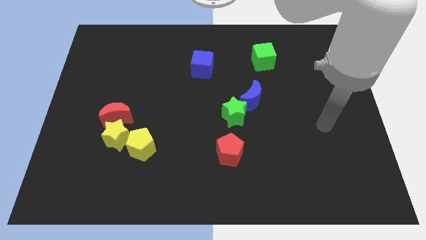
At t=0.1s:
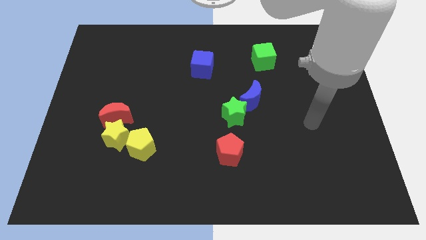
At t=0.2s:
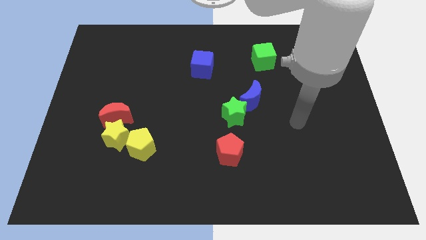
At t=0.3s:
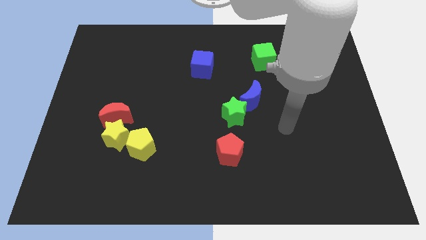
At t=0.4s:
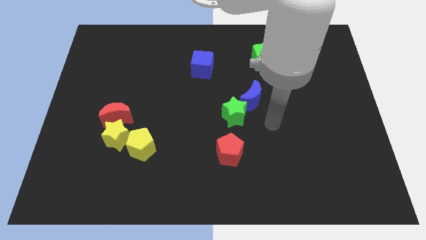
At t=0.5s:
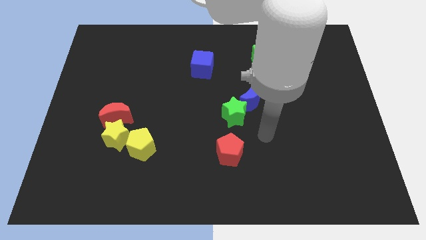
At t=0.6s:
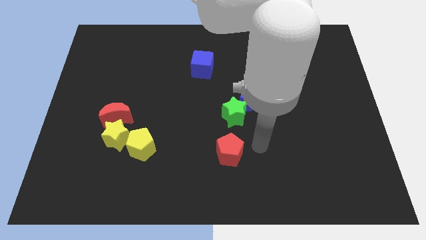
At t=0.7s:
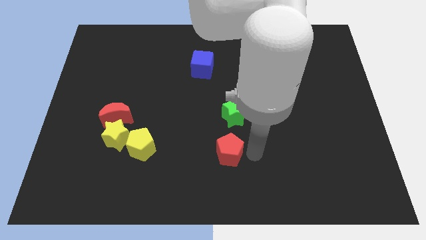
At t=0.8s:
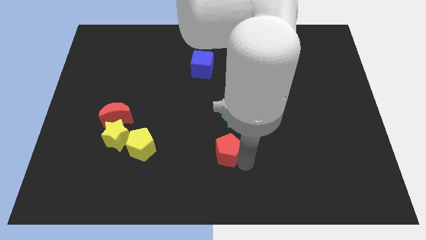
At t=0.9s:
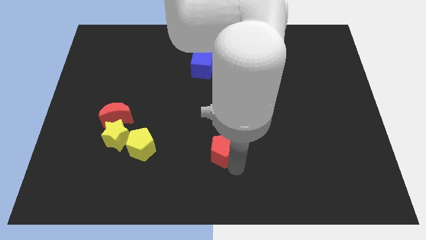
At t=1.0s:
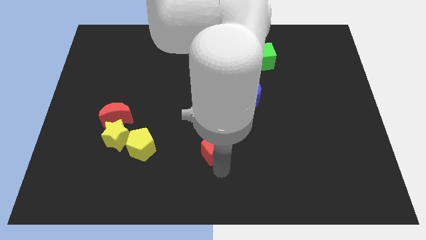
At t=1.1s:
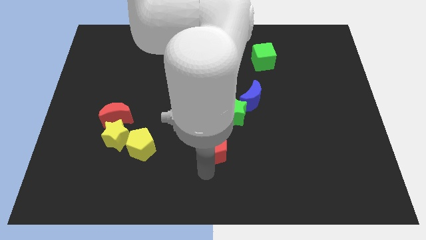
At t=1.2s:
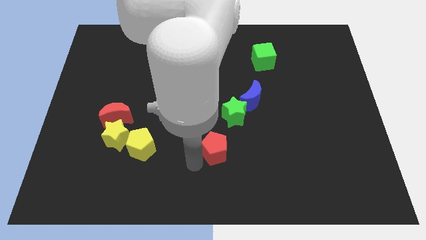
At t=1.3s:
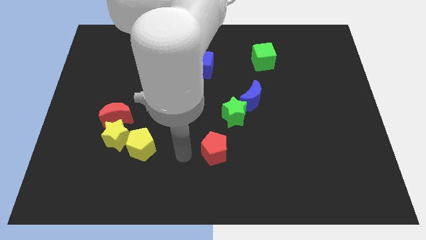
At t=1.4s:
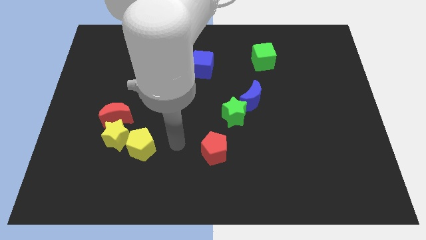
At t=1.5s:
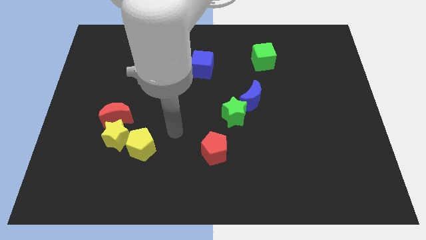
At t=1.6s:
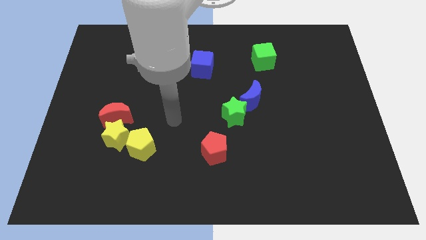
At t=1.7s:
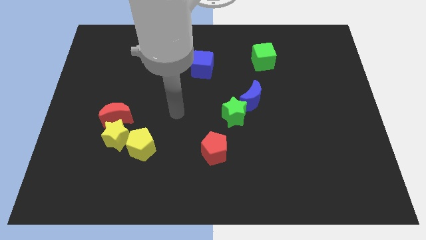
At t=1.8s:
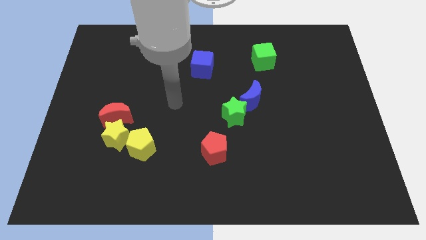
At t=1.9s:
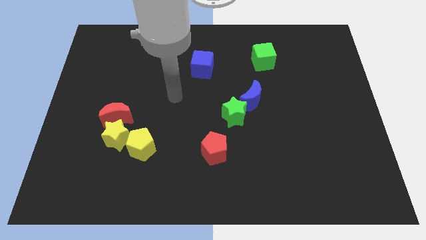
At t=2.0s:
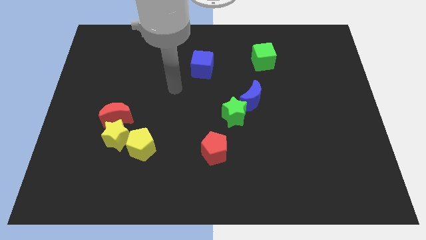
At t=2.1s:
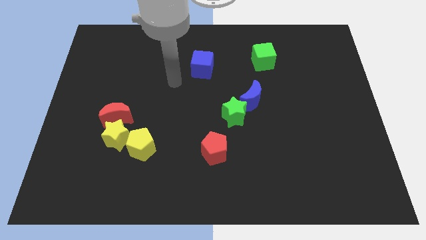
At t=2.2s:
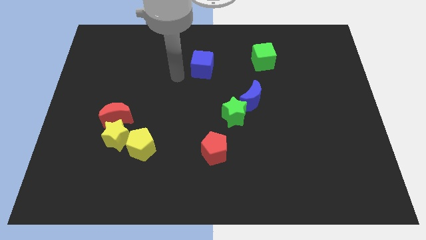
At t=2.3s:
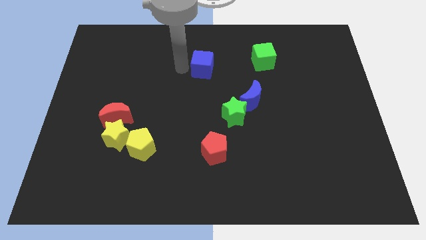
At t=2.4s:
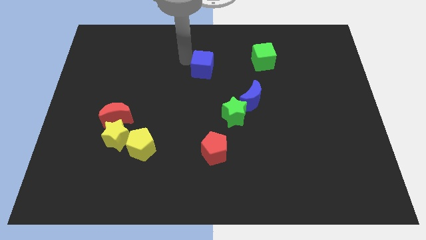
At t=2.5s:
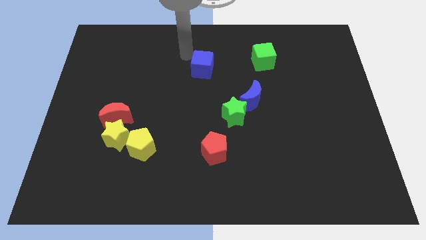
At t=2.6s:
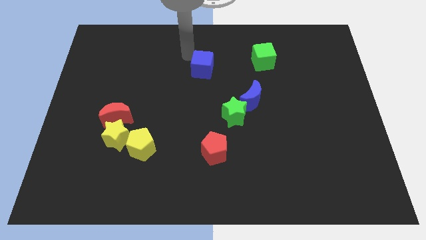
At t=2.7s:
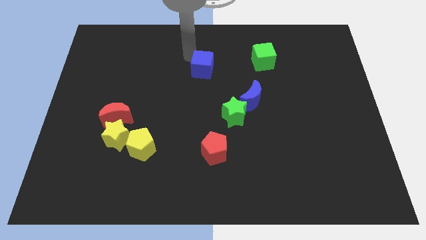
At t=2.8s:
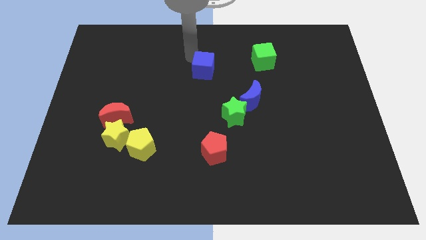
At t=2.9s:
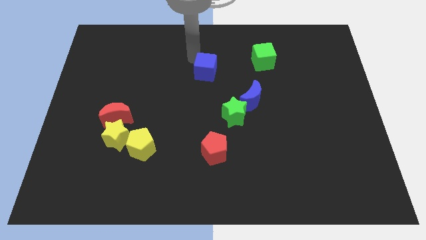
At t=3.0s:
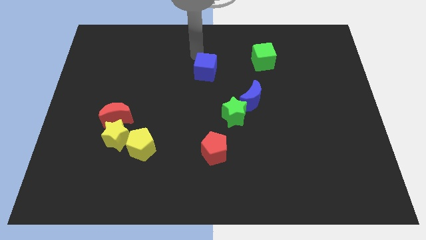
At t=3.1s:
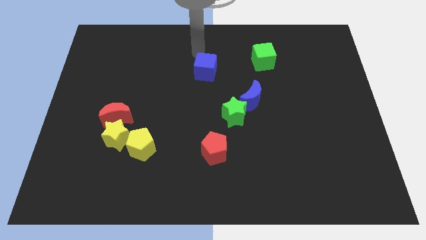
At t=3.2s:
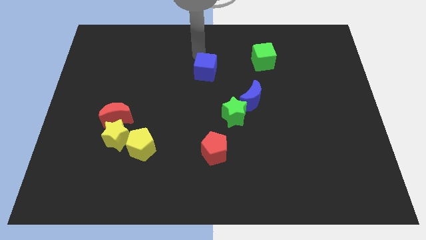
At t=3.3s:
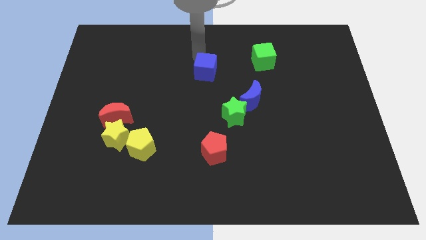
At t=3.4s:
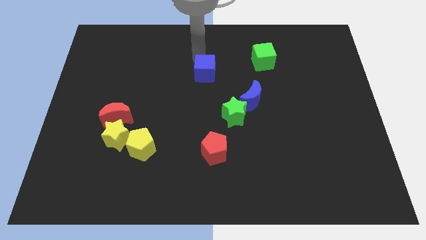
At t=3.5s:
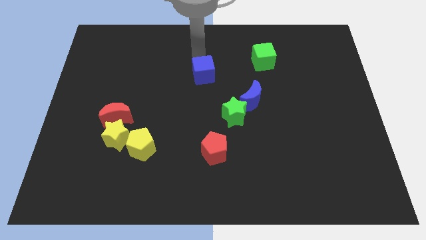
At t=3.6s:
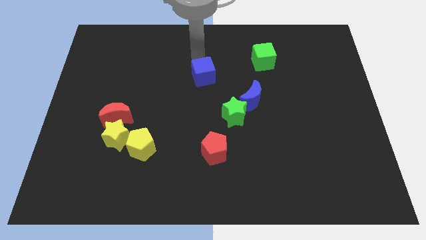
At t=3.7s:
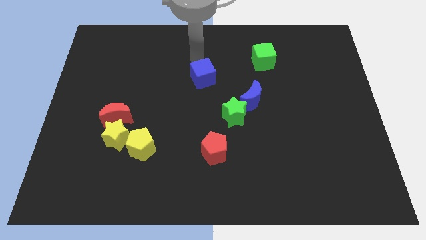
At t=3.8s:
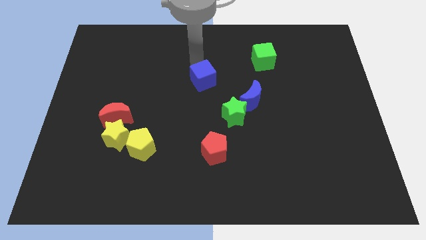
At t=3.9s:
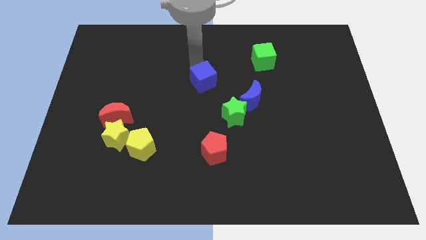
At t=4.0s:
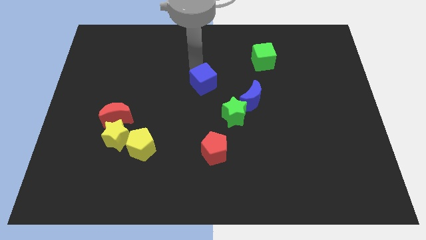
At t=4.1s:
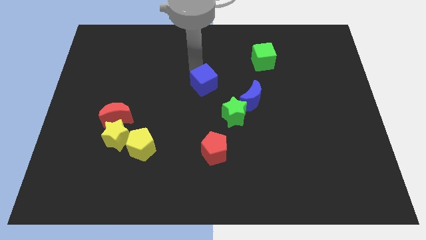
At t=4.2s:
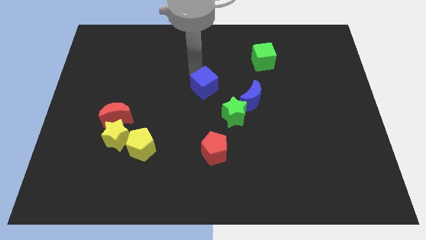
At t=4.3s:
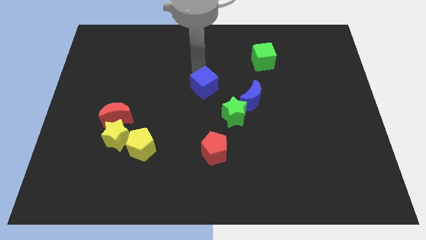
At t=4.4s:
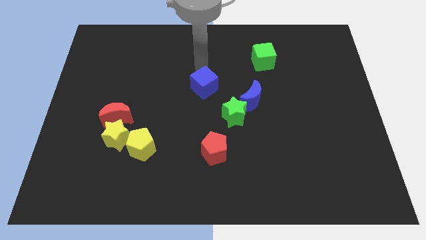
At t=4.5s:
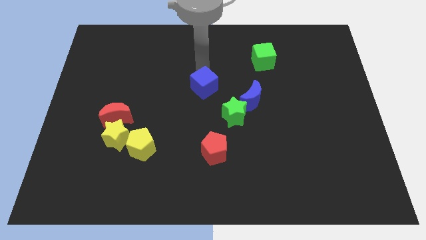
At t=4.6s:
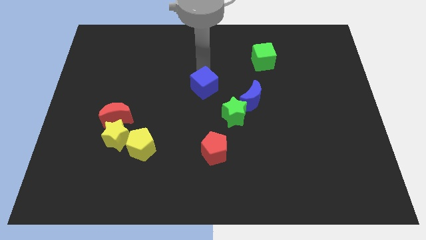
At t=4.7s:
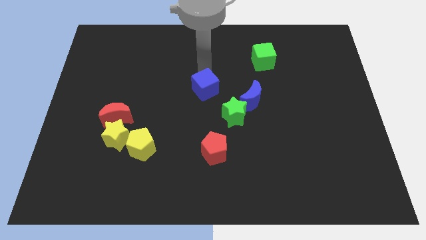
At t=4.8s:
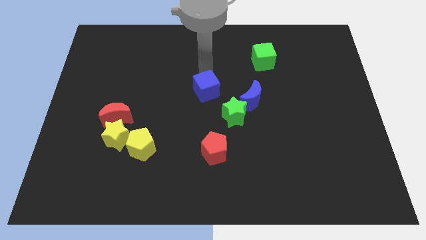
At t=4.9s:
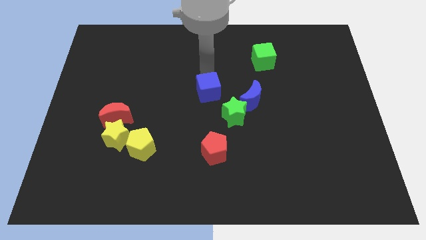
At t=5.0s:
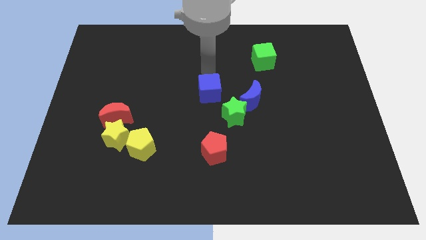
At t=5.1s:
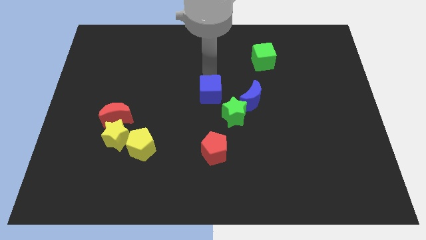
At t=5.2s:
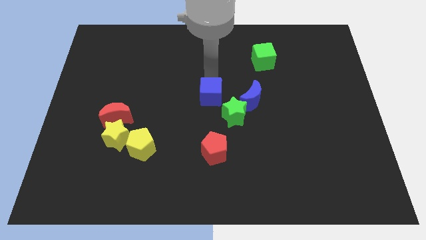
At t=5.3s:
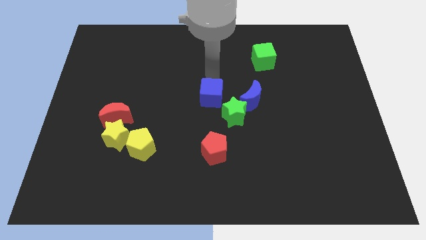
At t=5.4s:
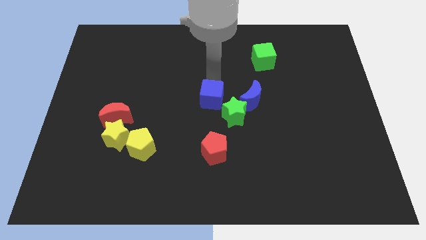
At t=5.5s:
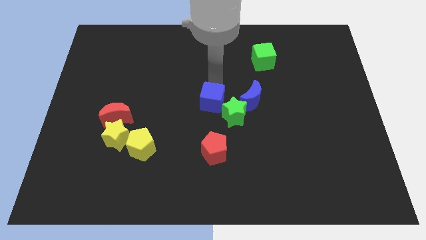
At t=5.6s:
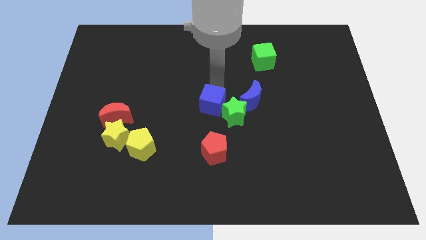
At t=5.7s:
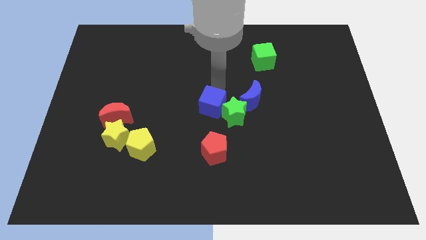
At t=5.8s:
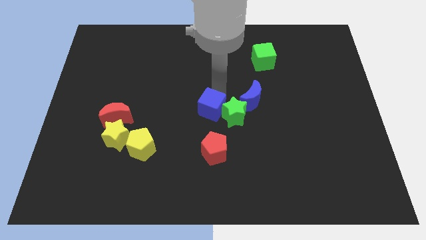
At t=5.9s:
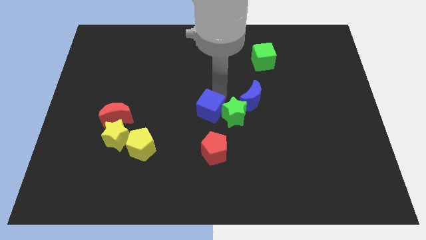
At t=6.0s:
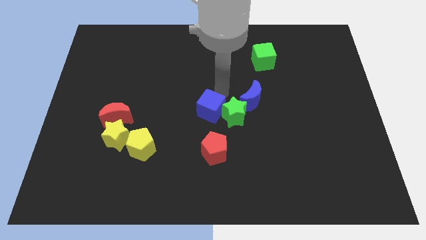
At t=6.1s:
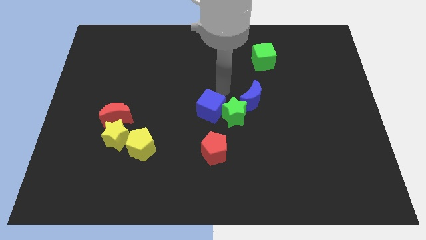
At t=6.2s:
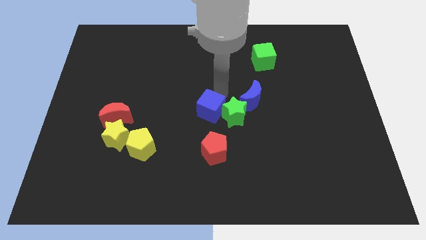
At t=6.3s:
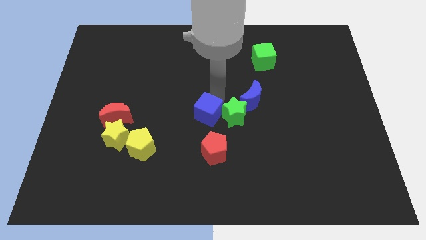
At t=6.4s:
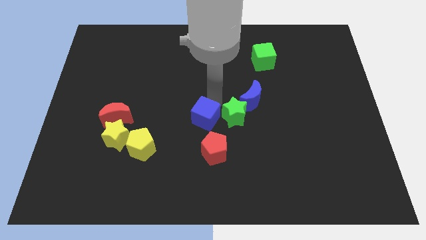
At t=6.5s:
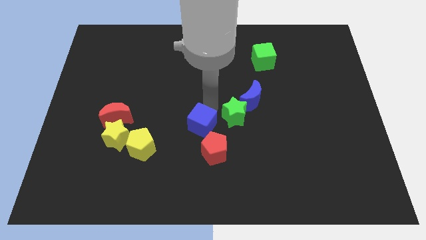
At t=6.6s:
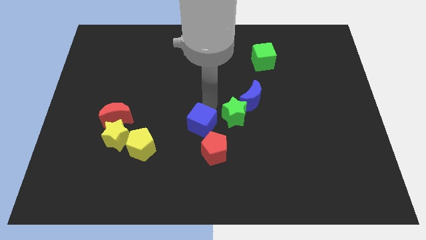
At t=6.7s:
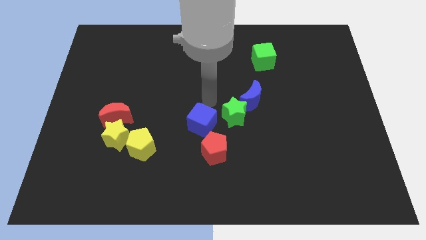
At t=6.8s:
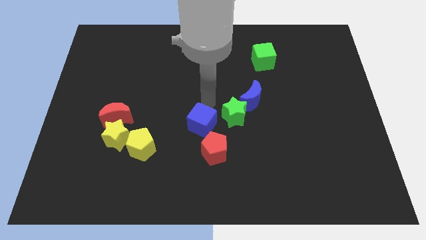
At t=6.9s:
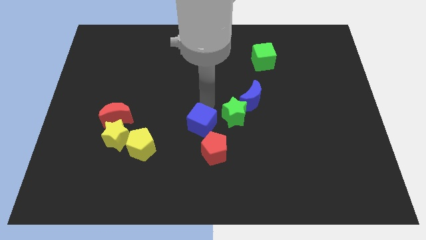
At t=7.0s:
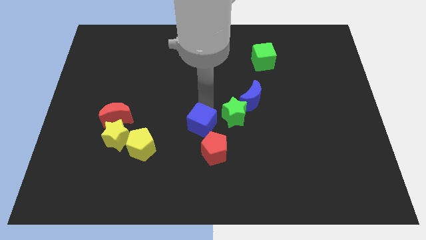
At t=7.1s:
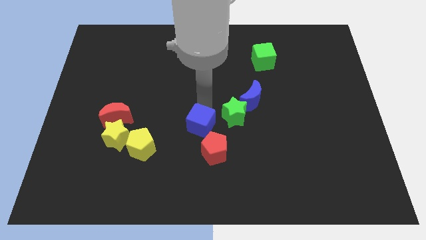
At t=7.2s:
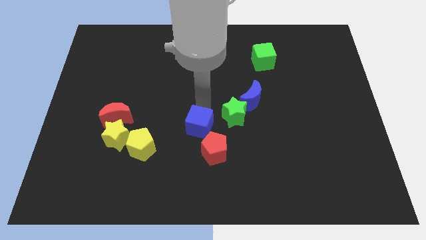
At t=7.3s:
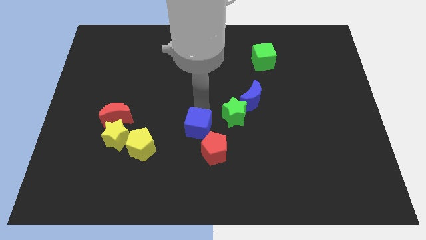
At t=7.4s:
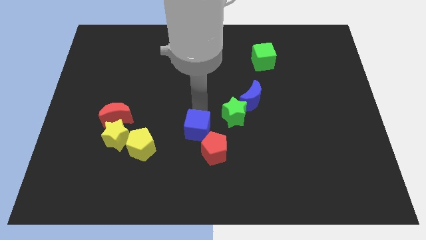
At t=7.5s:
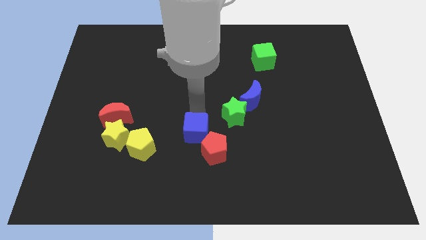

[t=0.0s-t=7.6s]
slide the blue cube downwards

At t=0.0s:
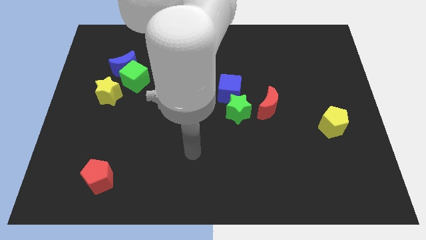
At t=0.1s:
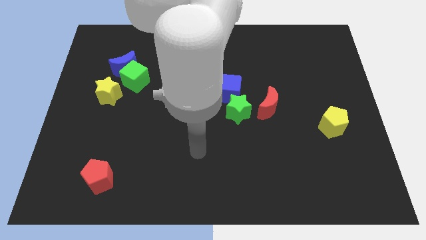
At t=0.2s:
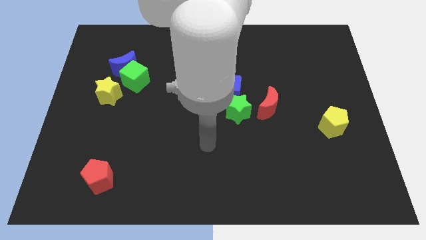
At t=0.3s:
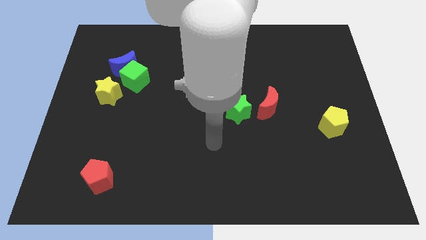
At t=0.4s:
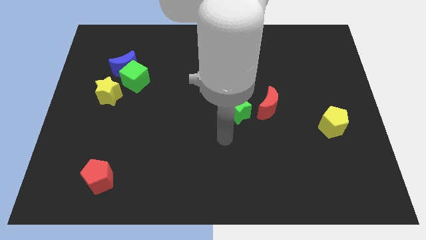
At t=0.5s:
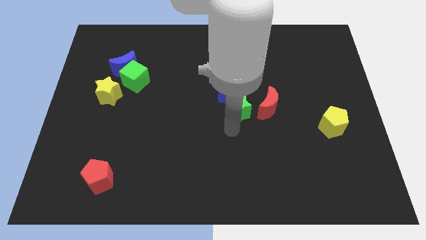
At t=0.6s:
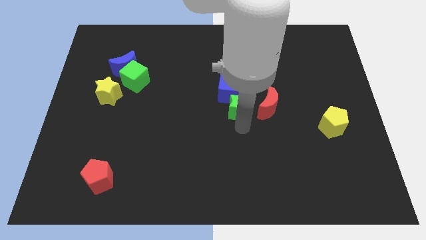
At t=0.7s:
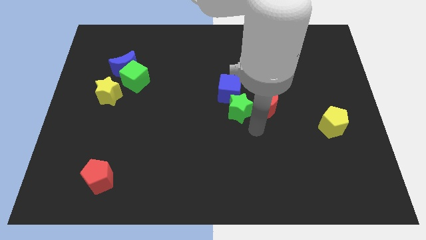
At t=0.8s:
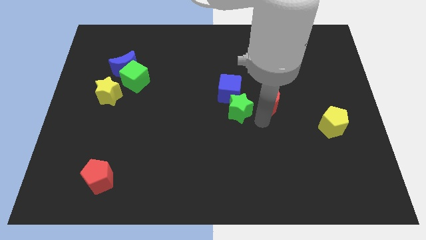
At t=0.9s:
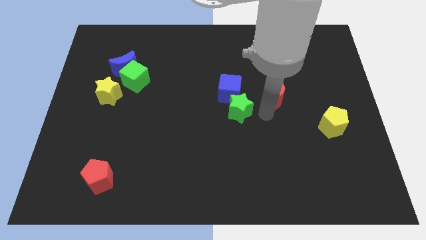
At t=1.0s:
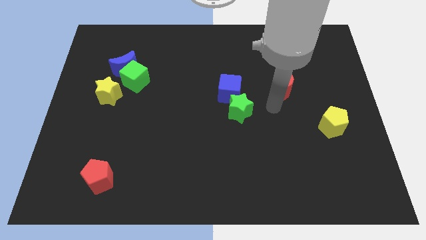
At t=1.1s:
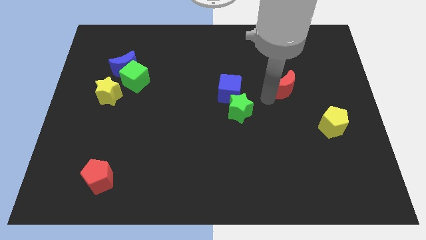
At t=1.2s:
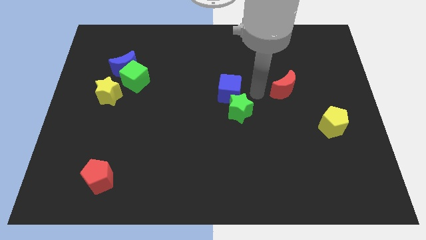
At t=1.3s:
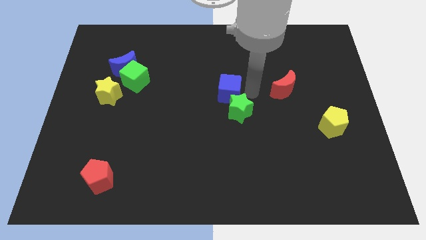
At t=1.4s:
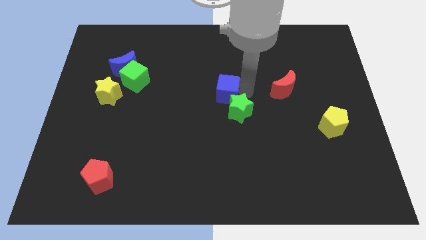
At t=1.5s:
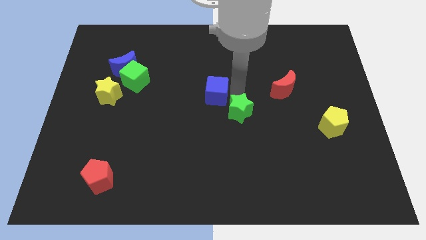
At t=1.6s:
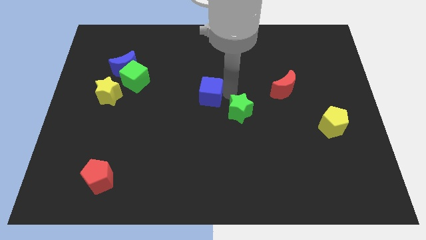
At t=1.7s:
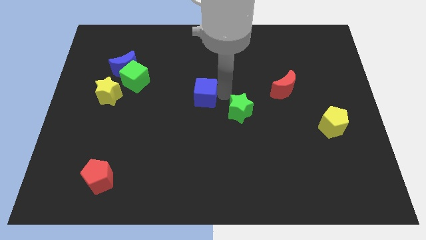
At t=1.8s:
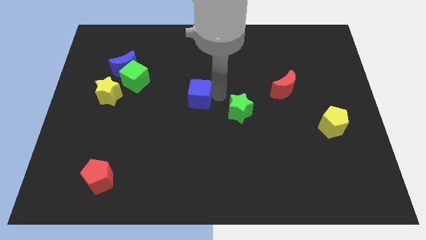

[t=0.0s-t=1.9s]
slide the blue cube slightly left
